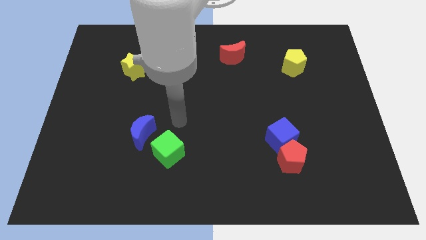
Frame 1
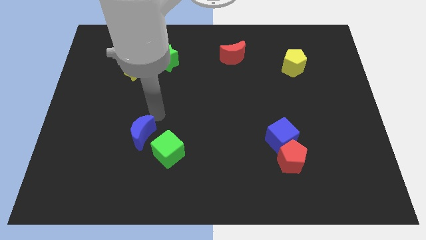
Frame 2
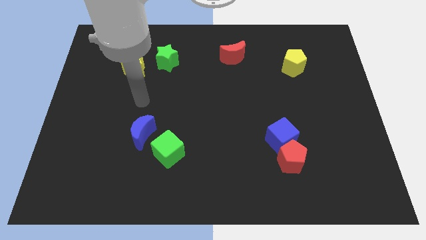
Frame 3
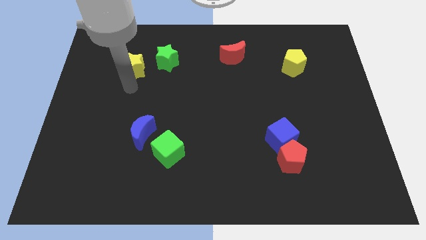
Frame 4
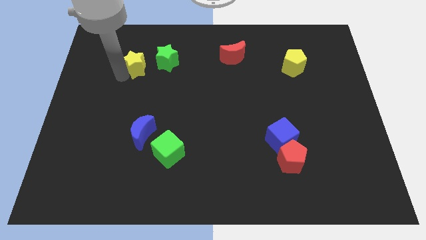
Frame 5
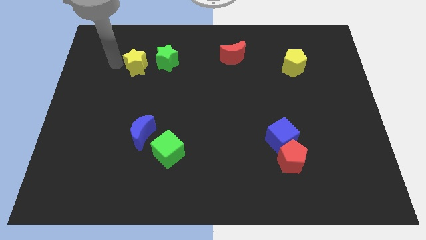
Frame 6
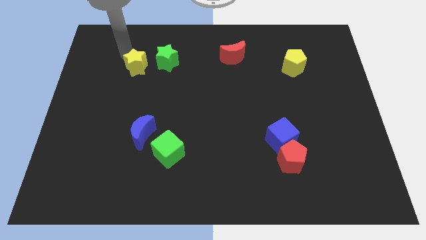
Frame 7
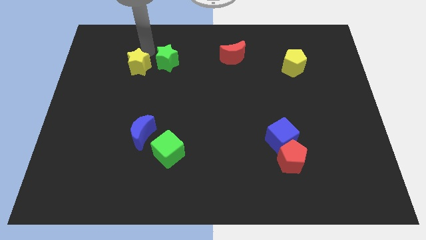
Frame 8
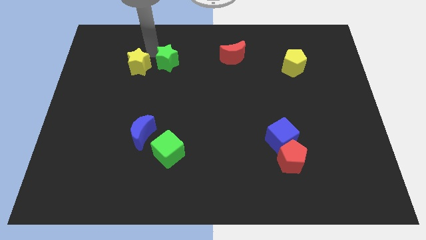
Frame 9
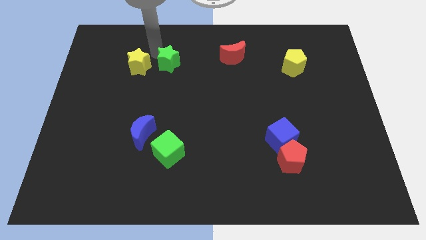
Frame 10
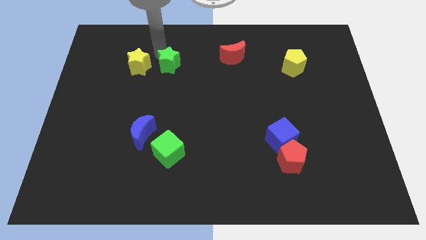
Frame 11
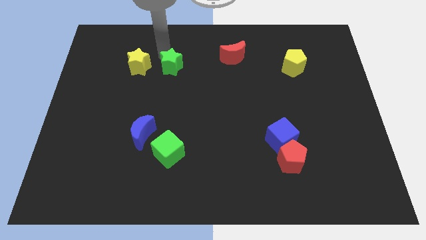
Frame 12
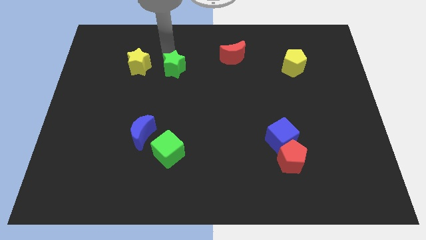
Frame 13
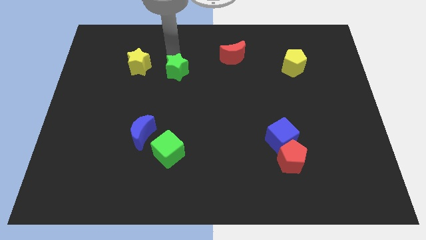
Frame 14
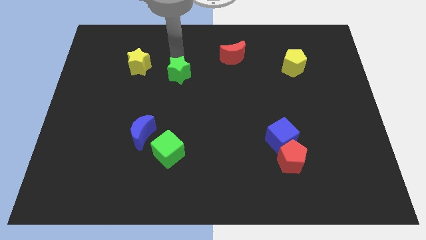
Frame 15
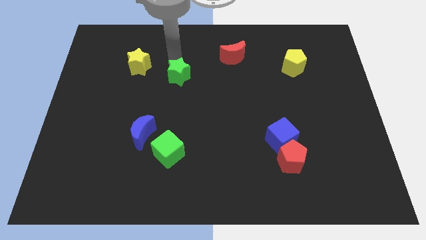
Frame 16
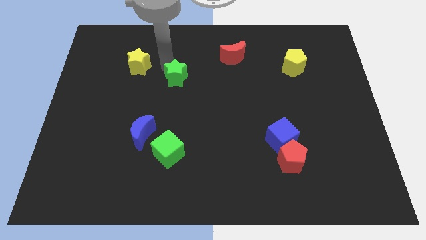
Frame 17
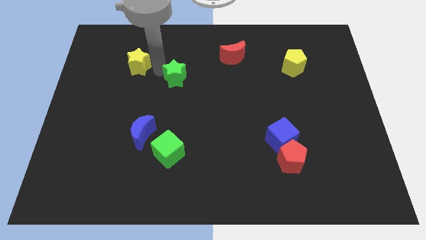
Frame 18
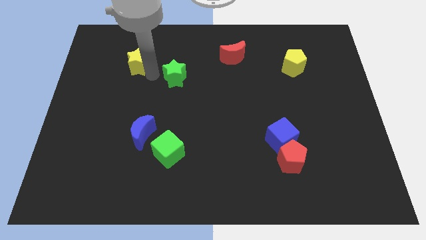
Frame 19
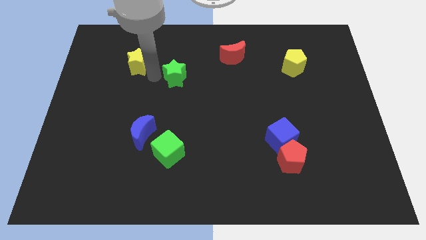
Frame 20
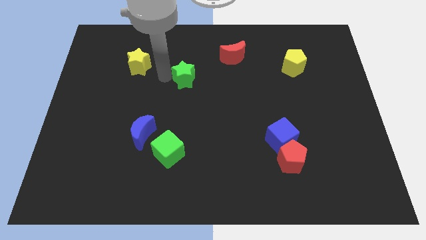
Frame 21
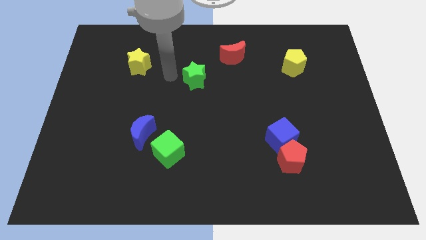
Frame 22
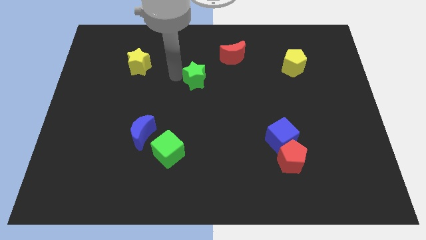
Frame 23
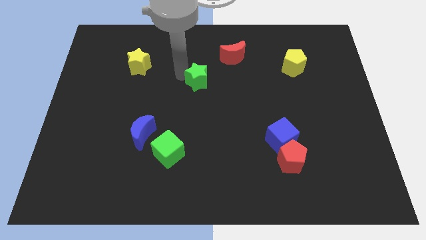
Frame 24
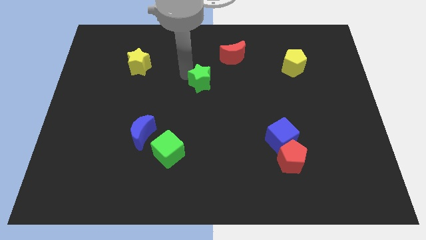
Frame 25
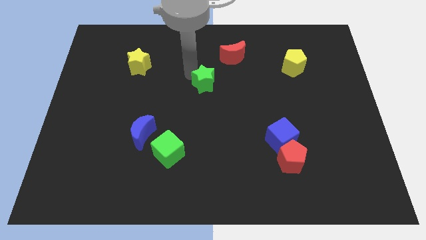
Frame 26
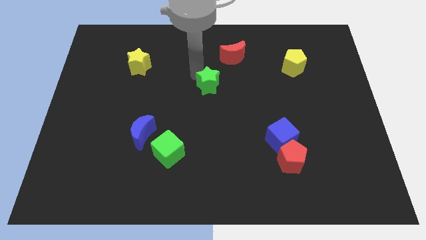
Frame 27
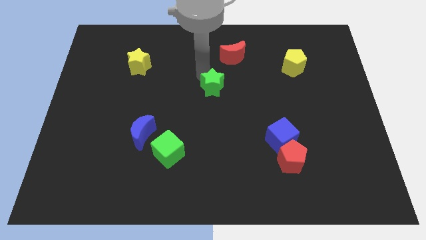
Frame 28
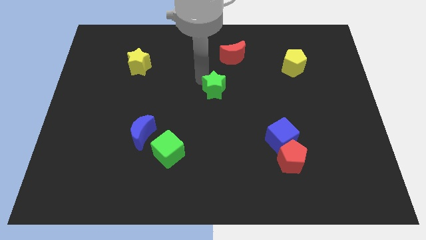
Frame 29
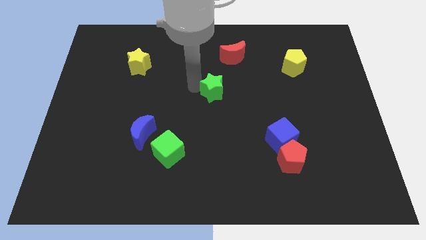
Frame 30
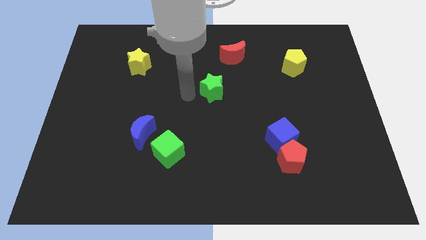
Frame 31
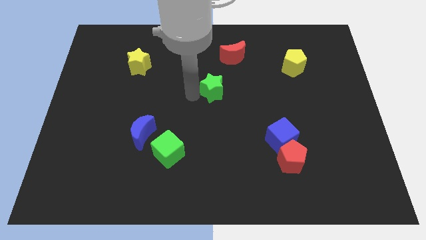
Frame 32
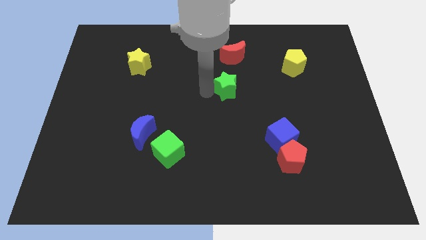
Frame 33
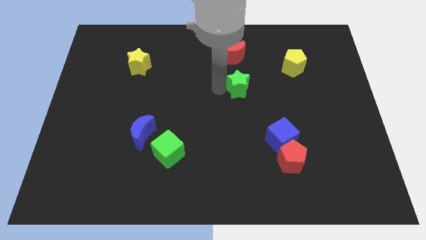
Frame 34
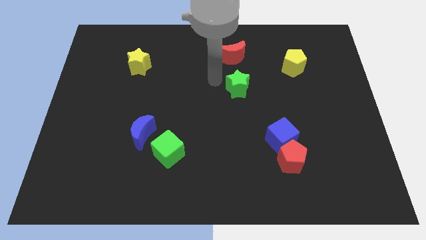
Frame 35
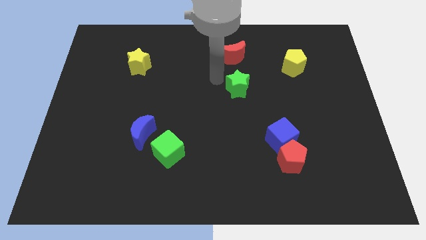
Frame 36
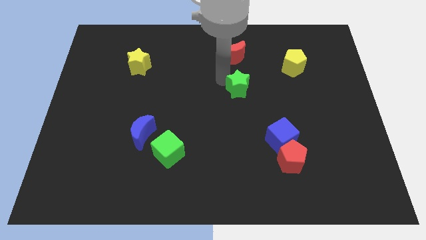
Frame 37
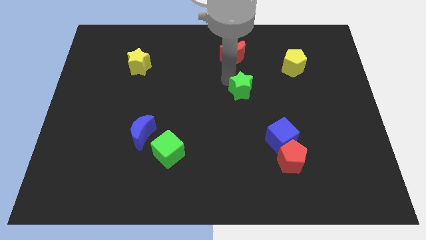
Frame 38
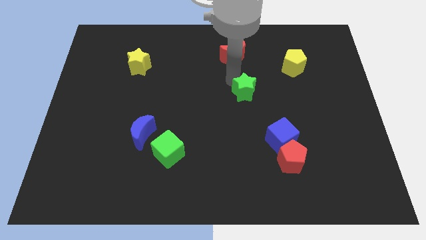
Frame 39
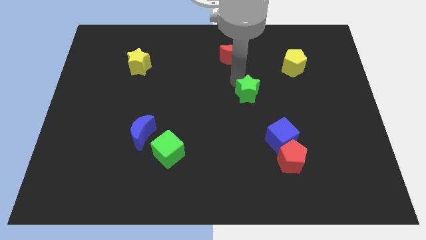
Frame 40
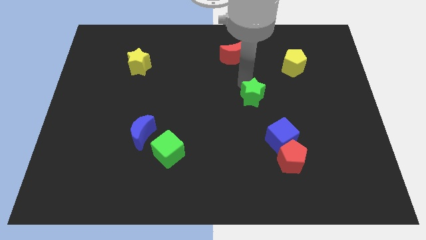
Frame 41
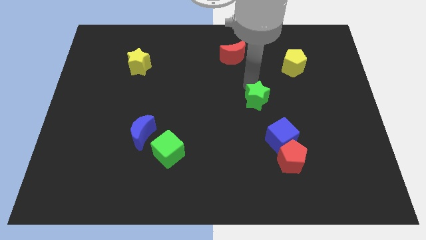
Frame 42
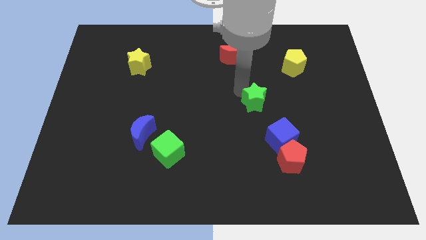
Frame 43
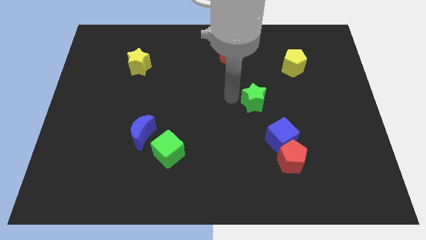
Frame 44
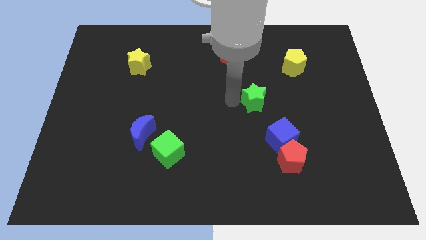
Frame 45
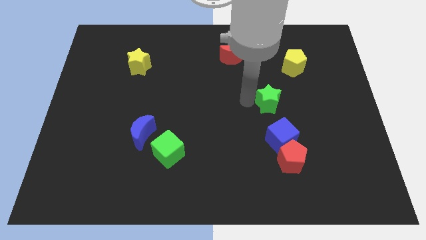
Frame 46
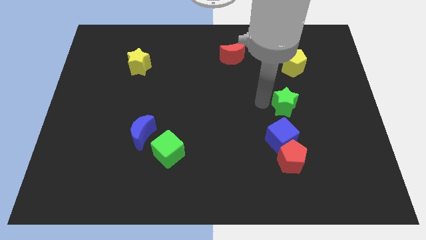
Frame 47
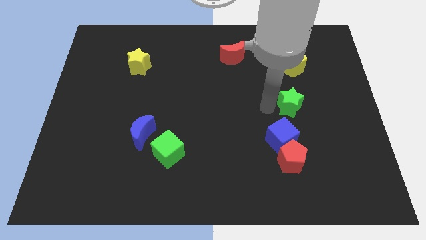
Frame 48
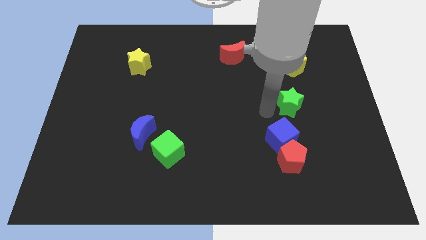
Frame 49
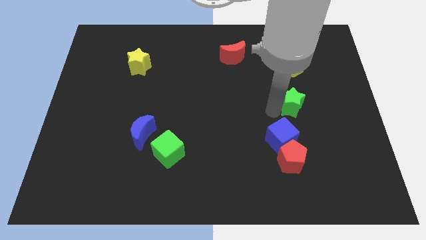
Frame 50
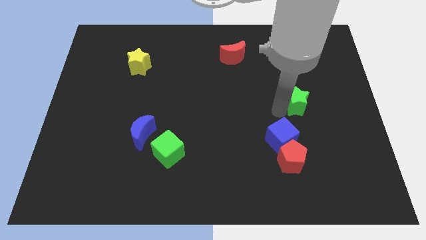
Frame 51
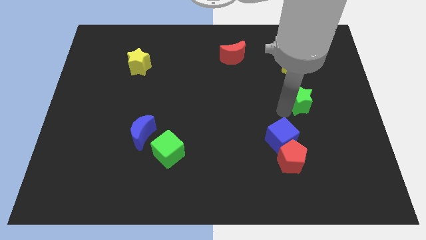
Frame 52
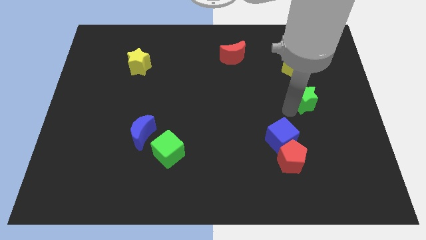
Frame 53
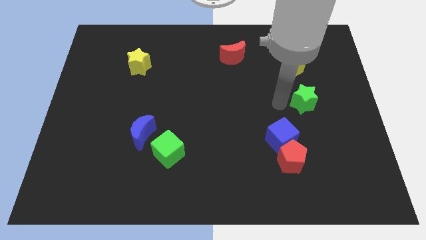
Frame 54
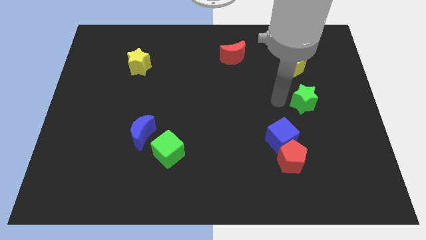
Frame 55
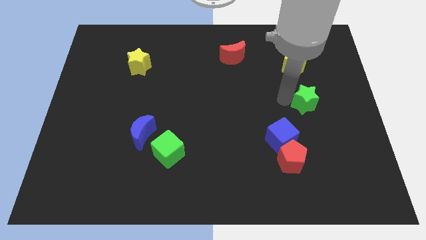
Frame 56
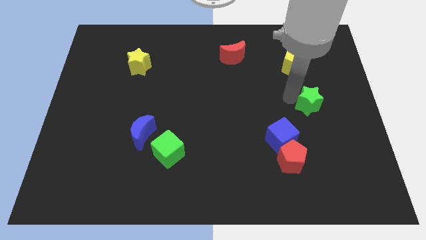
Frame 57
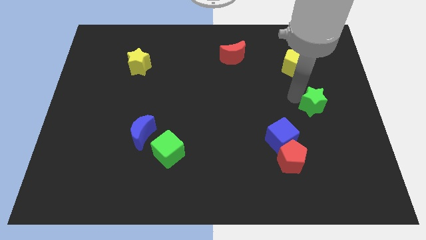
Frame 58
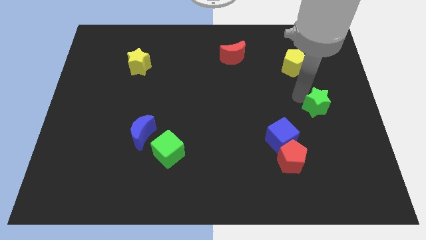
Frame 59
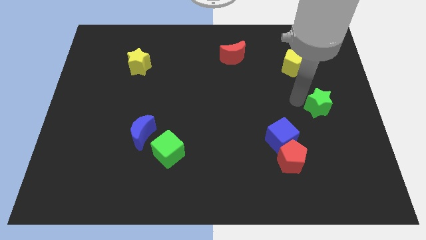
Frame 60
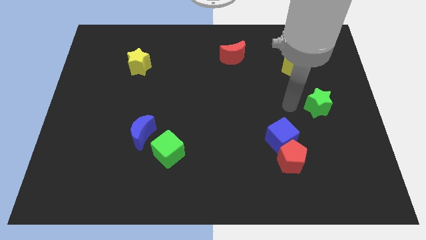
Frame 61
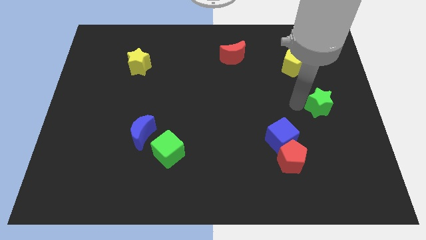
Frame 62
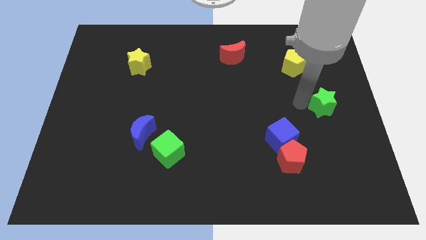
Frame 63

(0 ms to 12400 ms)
push the green star to the right side of the board

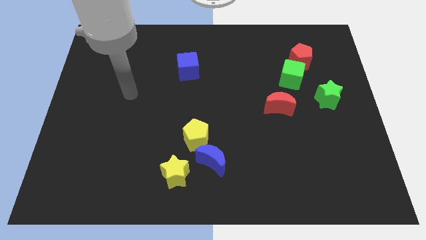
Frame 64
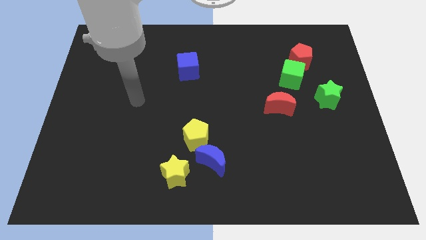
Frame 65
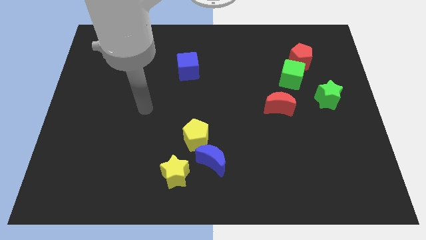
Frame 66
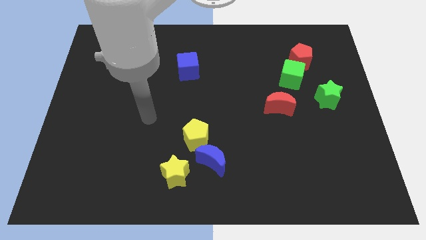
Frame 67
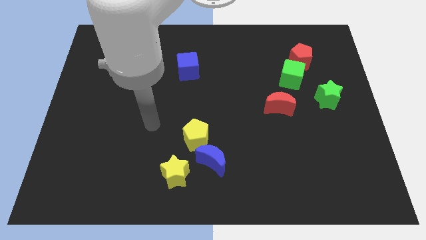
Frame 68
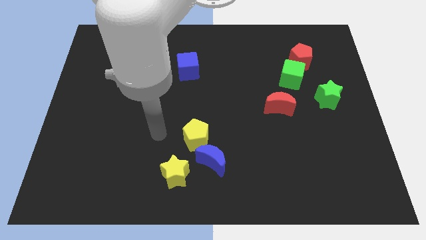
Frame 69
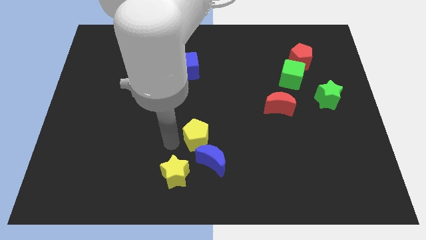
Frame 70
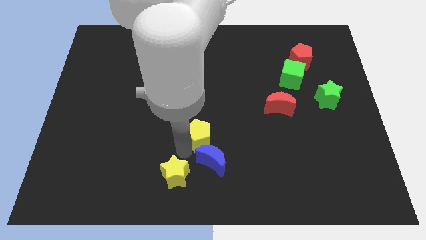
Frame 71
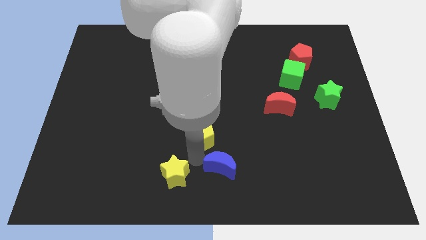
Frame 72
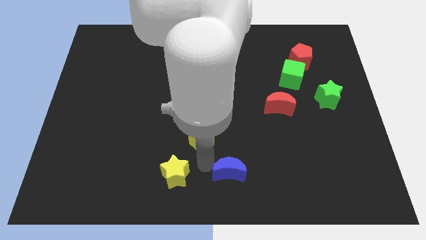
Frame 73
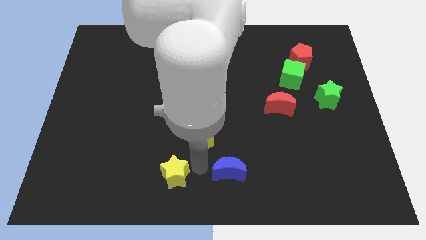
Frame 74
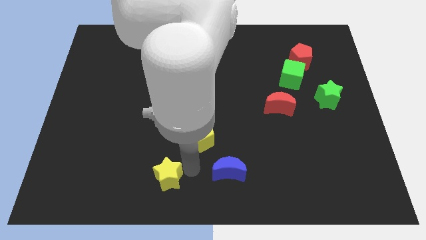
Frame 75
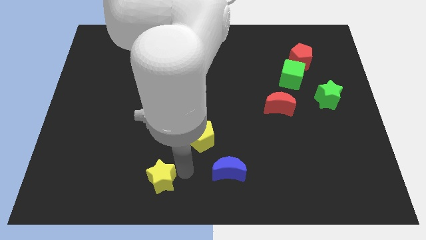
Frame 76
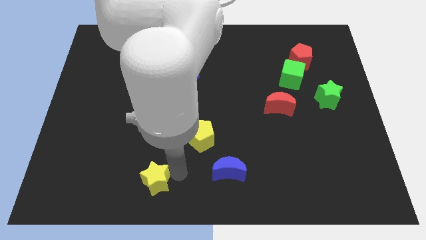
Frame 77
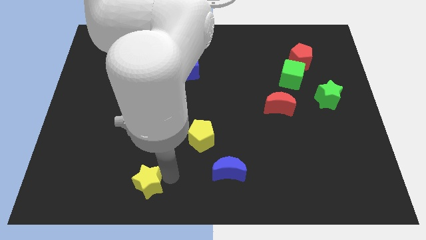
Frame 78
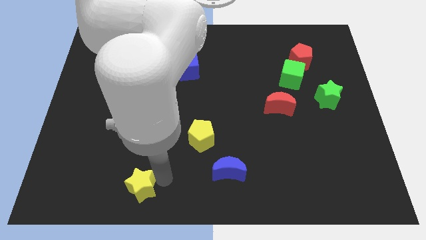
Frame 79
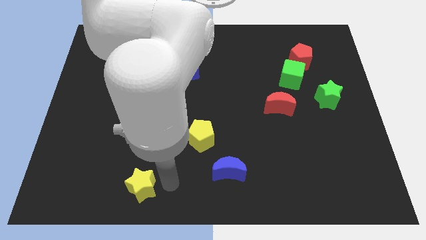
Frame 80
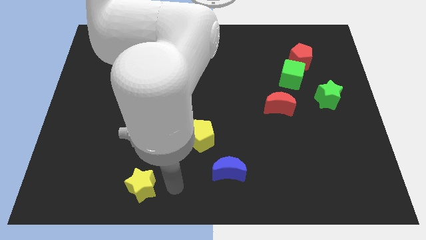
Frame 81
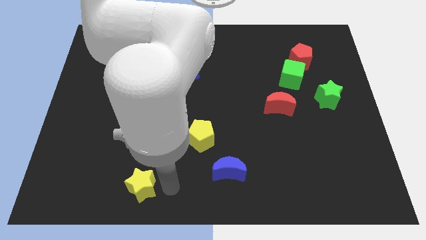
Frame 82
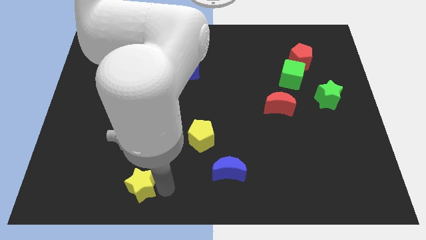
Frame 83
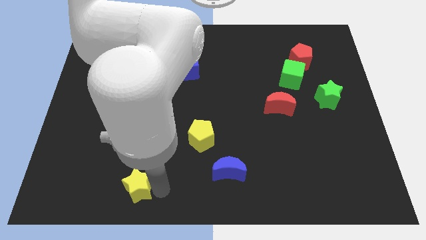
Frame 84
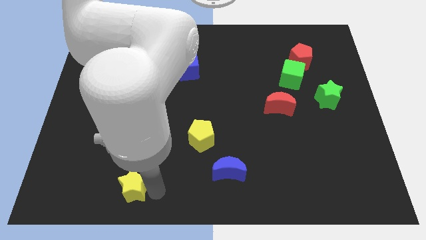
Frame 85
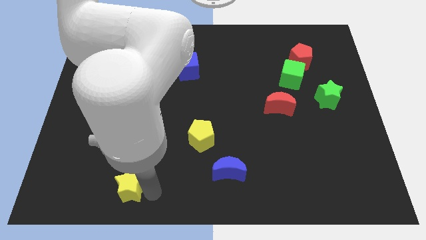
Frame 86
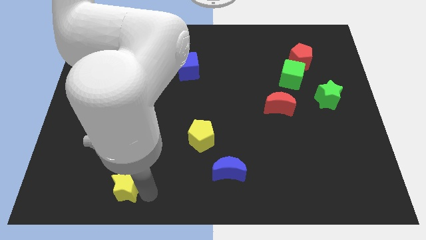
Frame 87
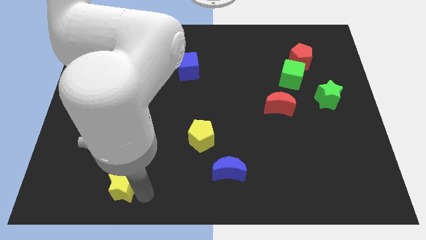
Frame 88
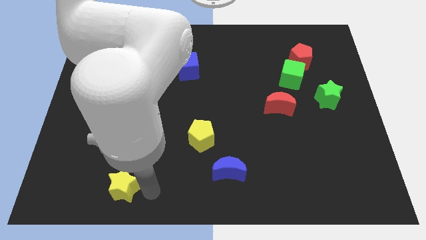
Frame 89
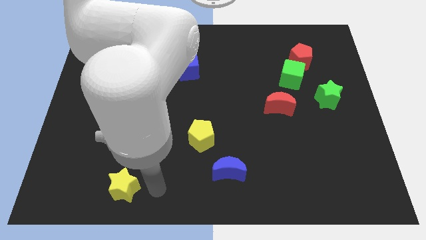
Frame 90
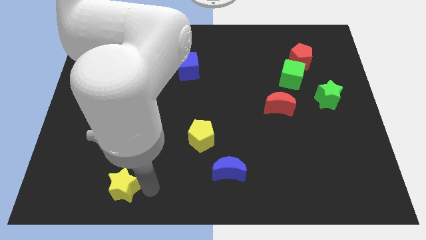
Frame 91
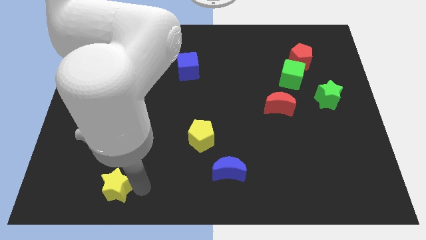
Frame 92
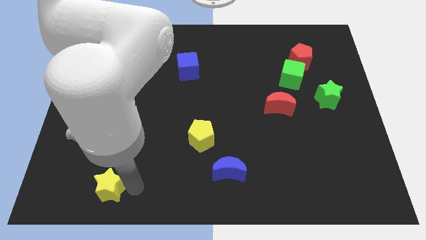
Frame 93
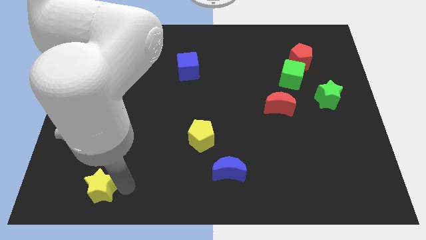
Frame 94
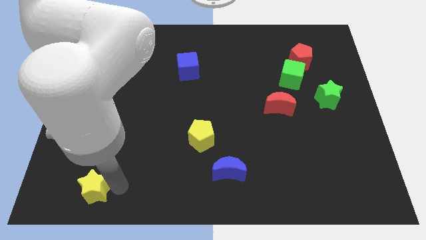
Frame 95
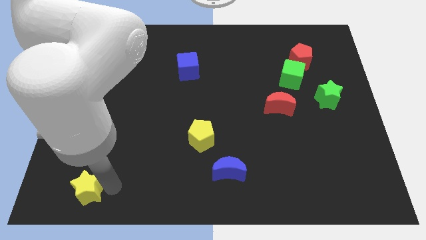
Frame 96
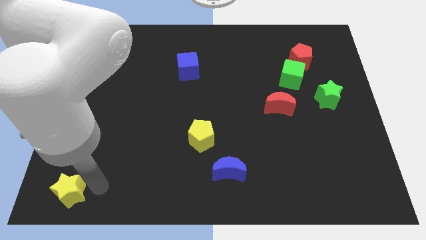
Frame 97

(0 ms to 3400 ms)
slide the yellow star to the bottom left
